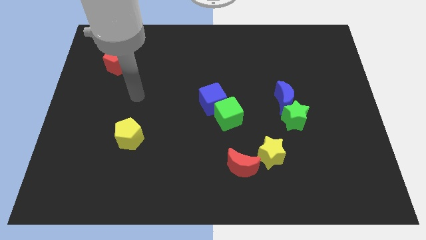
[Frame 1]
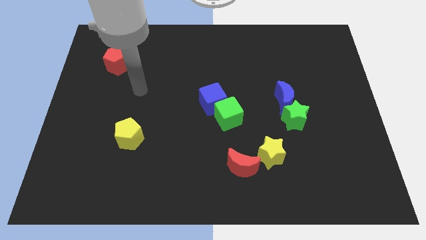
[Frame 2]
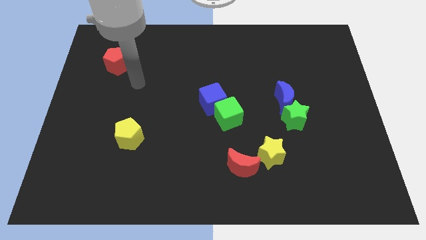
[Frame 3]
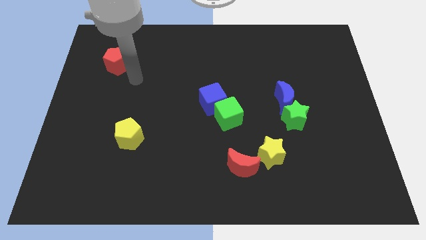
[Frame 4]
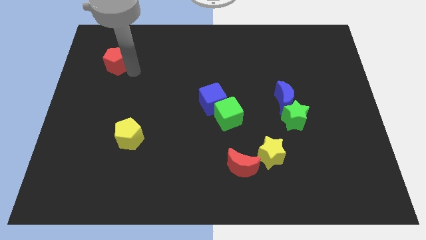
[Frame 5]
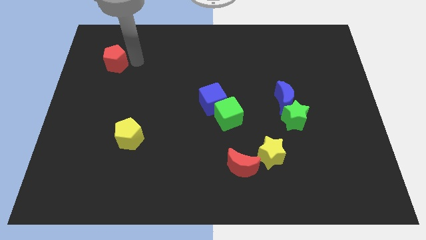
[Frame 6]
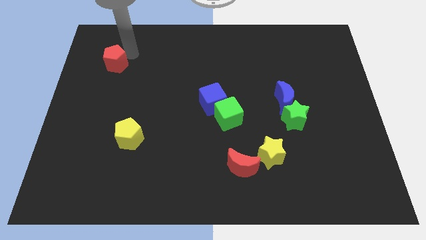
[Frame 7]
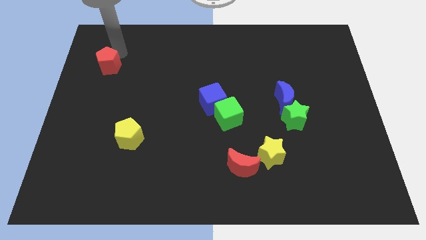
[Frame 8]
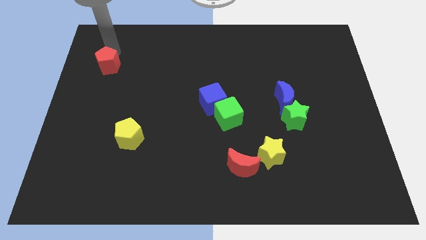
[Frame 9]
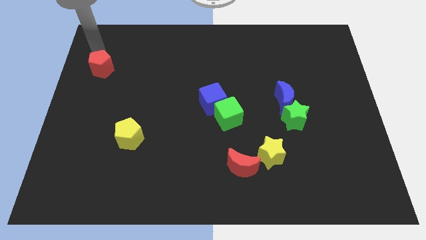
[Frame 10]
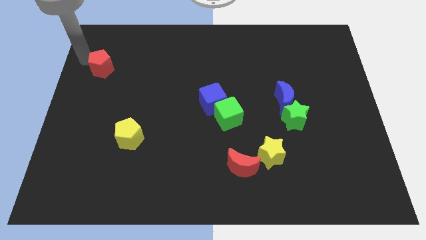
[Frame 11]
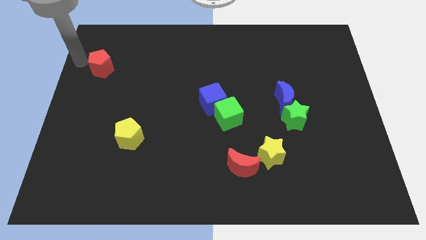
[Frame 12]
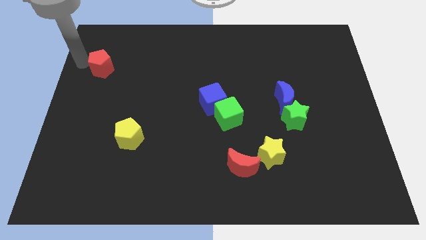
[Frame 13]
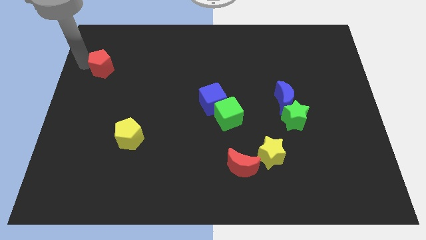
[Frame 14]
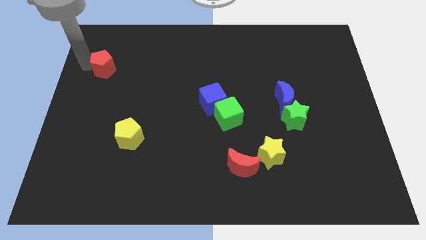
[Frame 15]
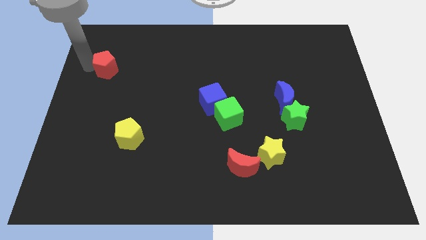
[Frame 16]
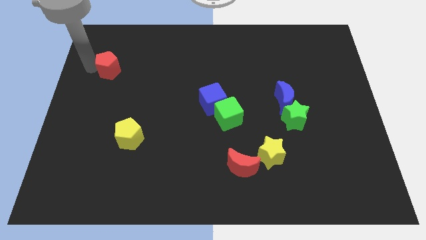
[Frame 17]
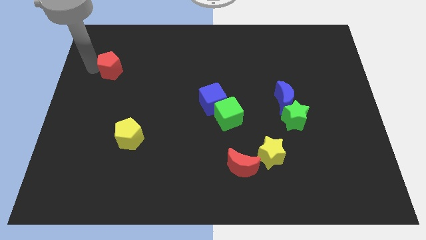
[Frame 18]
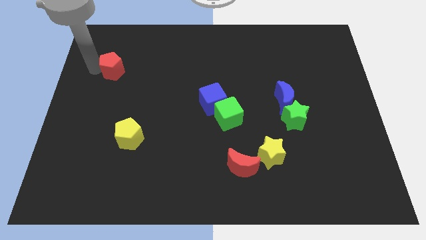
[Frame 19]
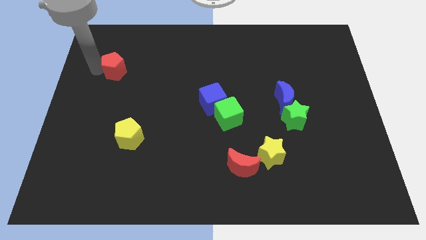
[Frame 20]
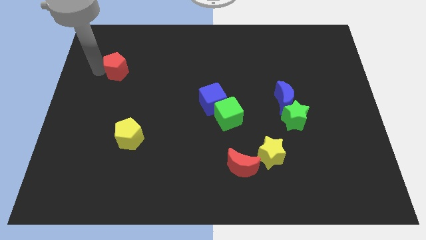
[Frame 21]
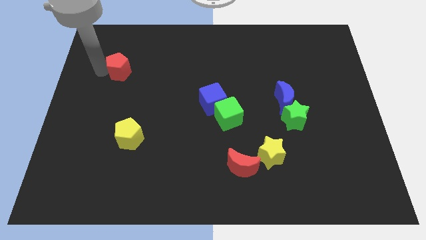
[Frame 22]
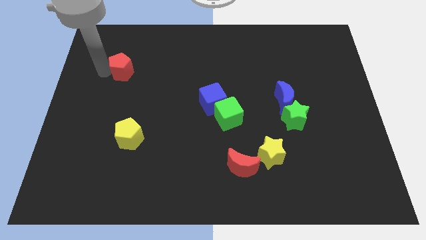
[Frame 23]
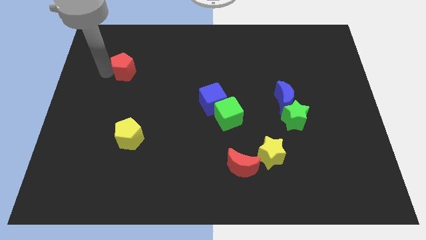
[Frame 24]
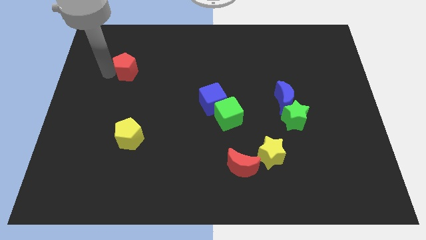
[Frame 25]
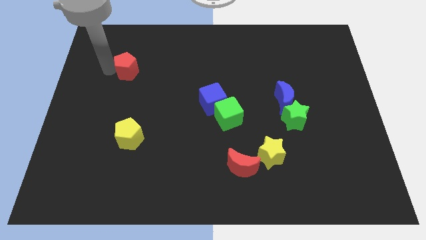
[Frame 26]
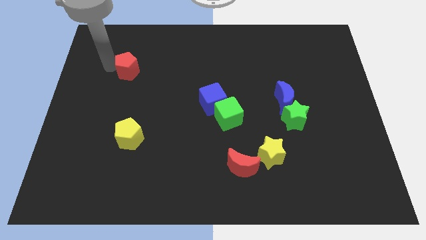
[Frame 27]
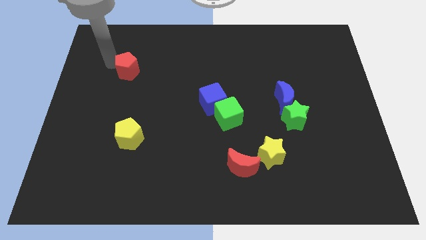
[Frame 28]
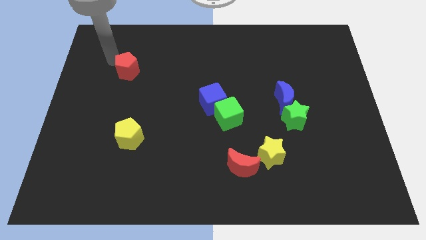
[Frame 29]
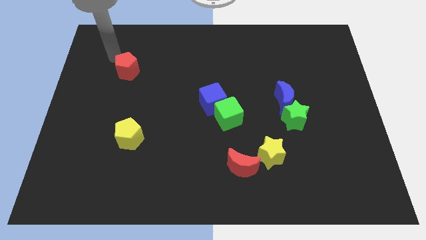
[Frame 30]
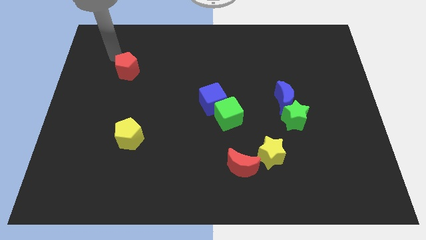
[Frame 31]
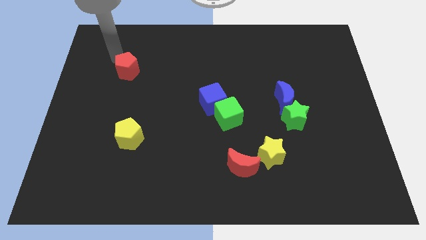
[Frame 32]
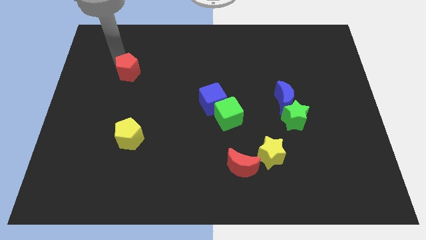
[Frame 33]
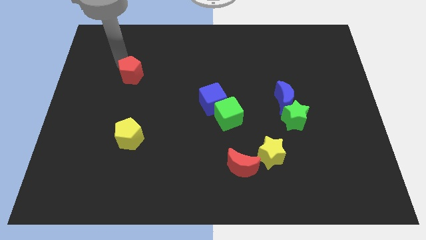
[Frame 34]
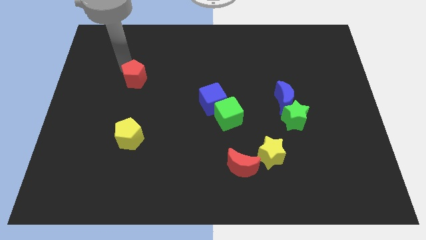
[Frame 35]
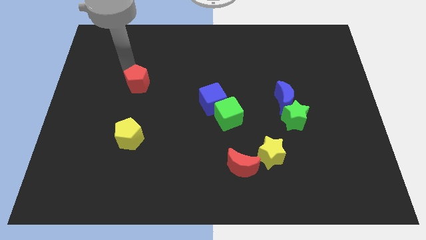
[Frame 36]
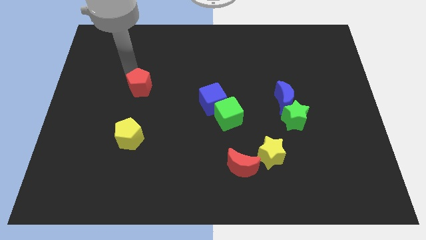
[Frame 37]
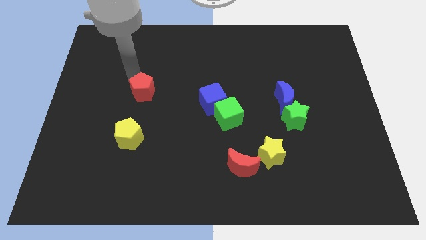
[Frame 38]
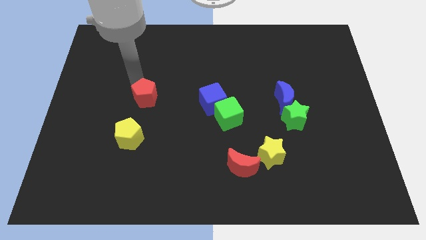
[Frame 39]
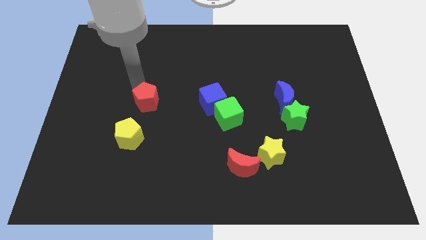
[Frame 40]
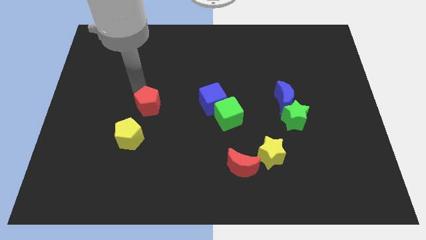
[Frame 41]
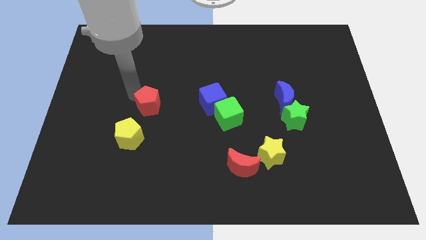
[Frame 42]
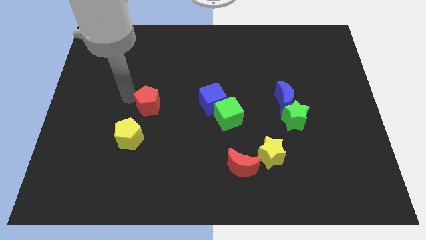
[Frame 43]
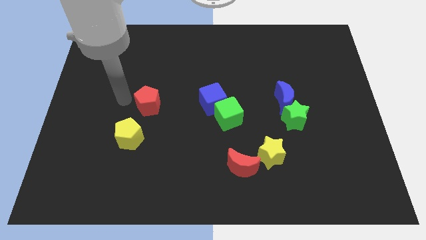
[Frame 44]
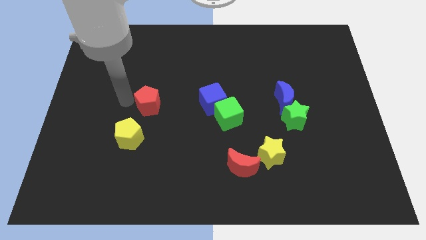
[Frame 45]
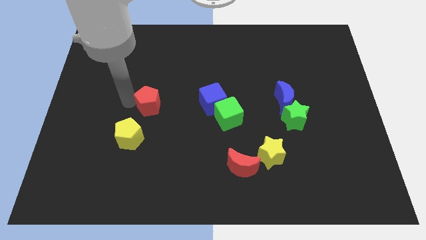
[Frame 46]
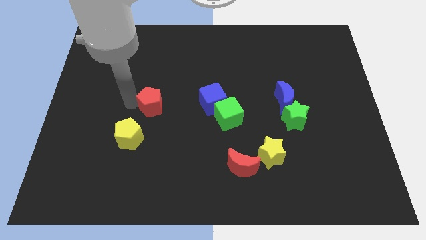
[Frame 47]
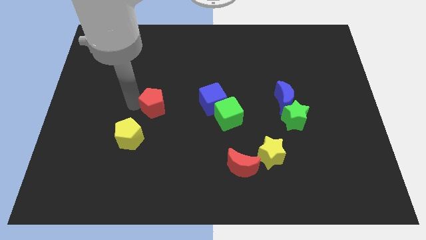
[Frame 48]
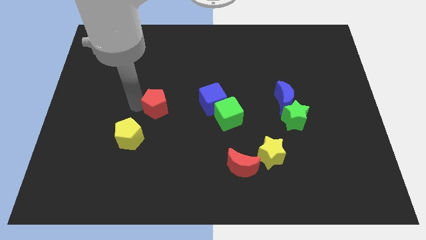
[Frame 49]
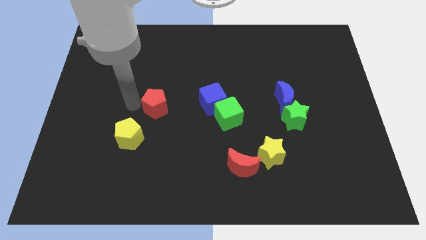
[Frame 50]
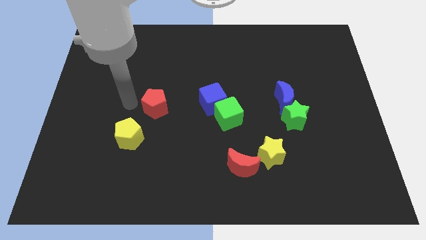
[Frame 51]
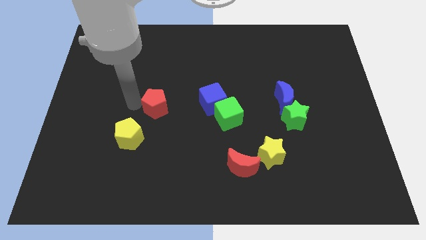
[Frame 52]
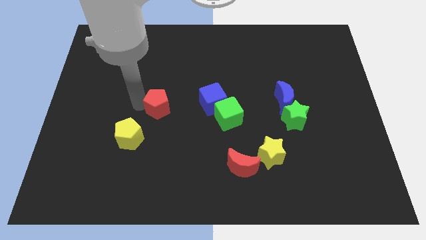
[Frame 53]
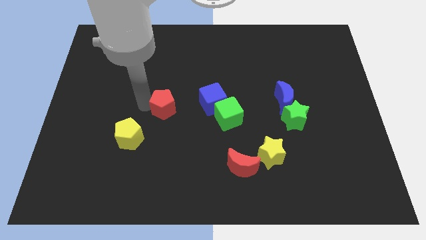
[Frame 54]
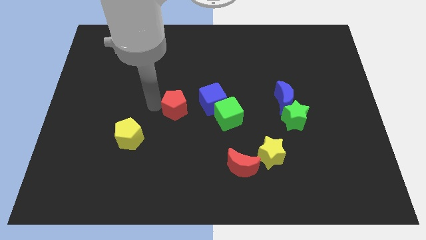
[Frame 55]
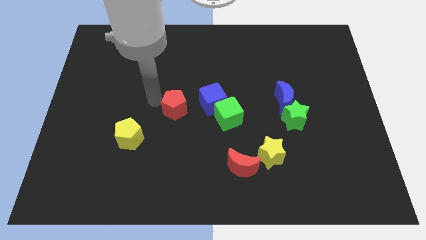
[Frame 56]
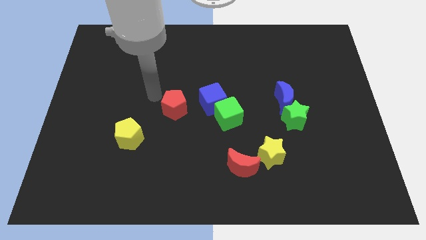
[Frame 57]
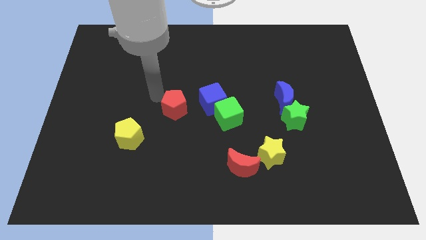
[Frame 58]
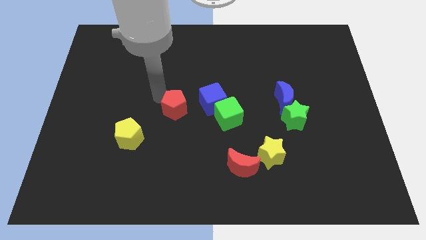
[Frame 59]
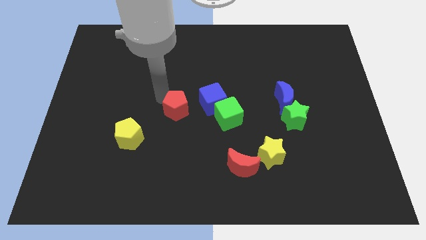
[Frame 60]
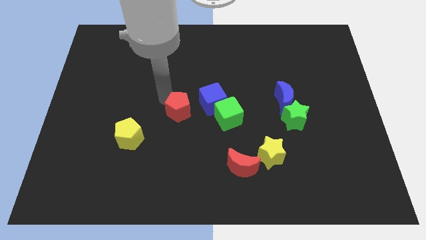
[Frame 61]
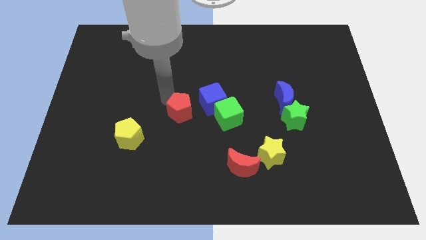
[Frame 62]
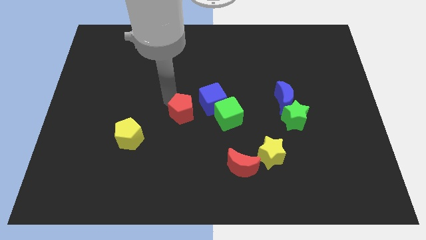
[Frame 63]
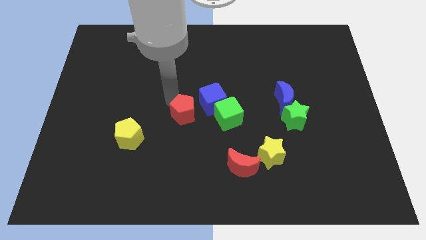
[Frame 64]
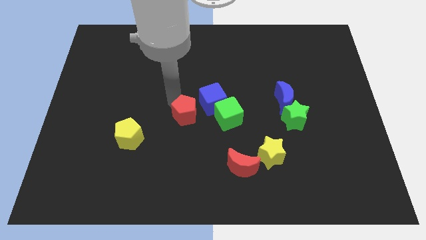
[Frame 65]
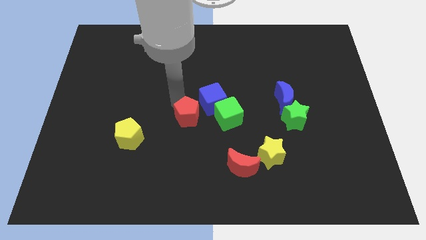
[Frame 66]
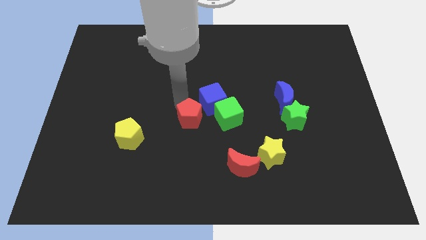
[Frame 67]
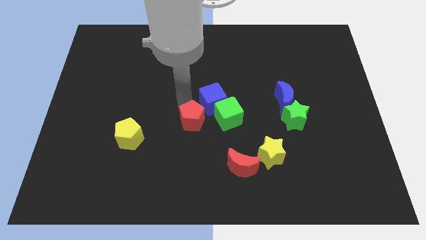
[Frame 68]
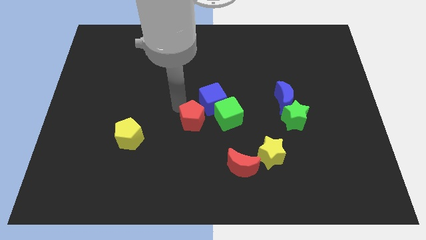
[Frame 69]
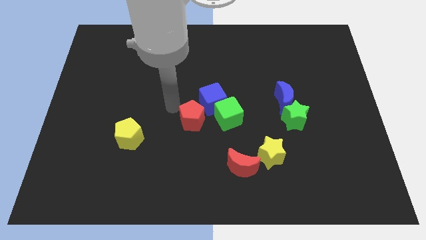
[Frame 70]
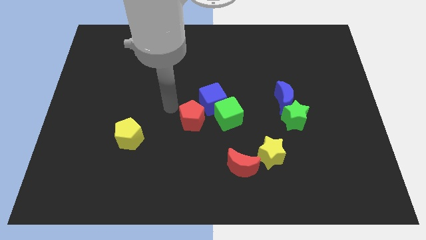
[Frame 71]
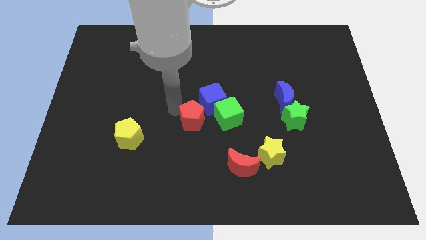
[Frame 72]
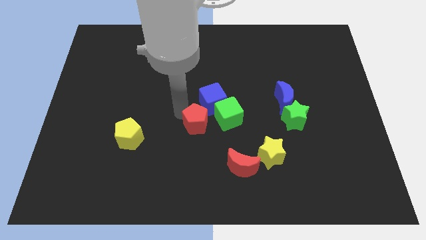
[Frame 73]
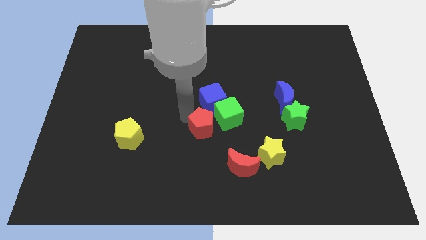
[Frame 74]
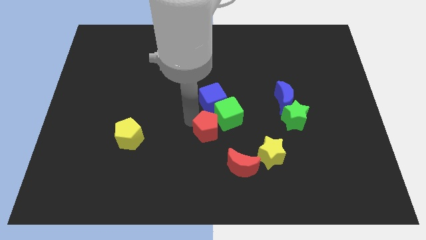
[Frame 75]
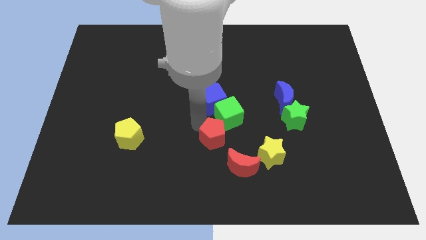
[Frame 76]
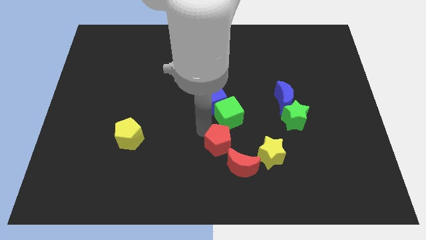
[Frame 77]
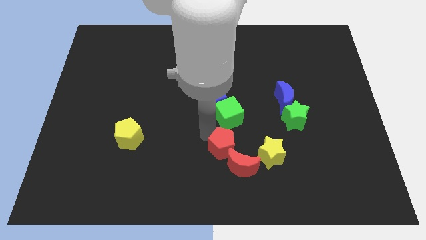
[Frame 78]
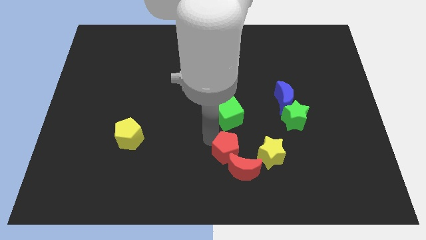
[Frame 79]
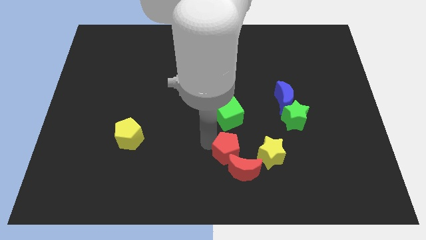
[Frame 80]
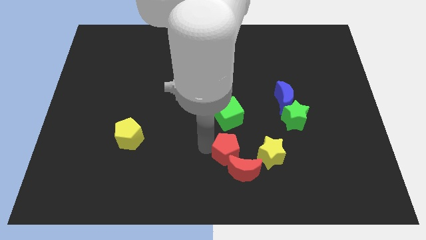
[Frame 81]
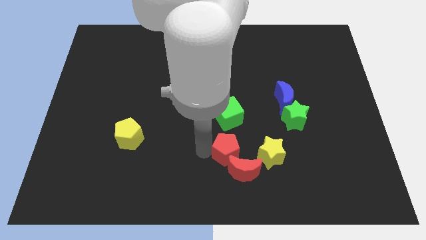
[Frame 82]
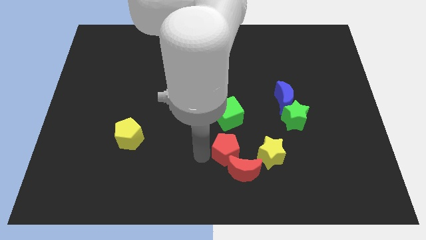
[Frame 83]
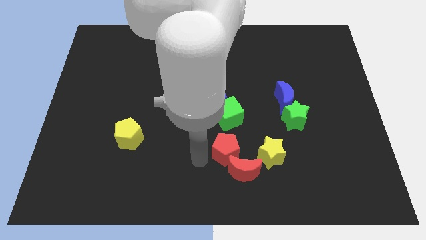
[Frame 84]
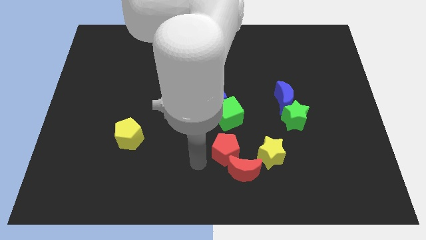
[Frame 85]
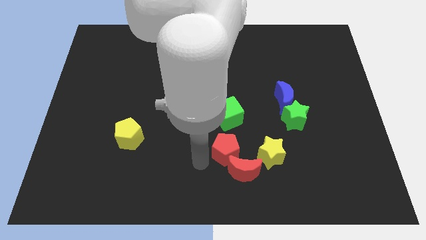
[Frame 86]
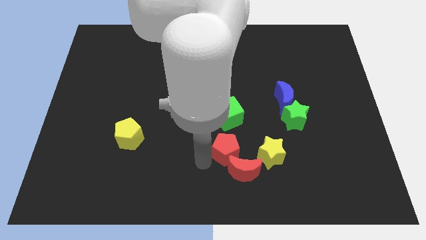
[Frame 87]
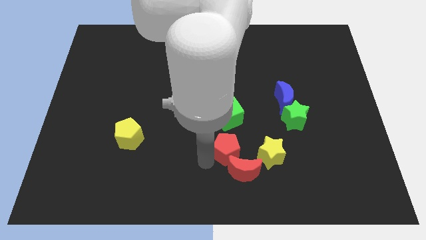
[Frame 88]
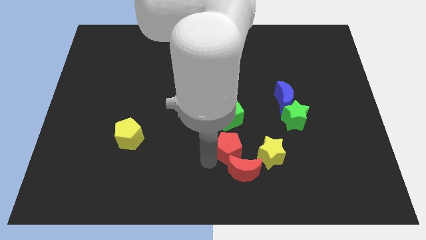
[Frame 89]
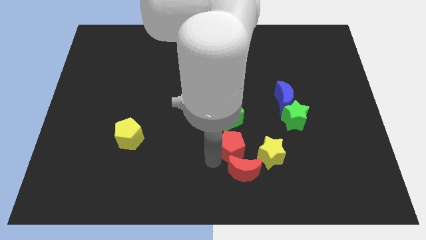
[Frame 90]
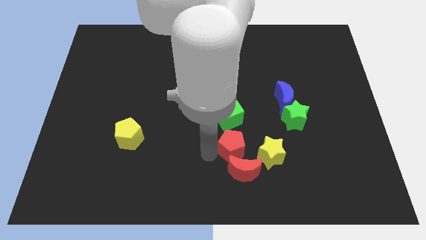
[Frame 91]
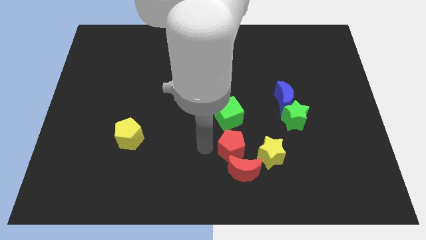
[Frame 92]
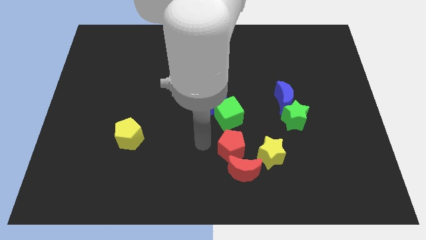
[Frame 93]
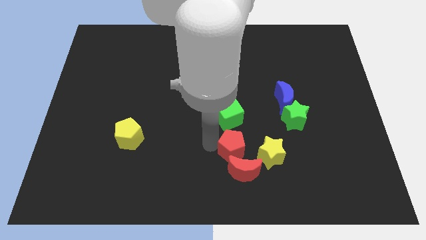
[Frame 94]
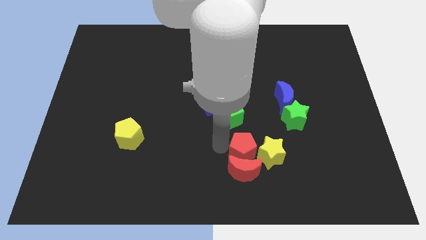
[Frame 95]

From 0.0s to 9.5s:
put the red pentagon towards the yellow star
